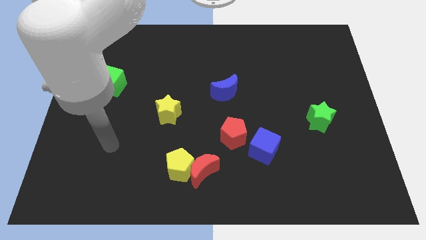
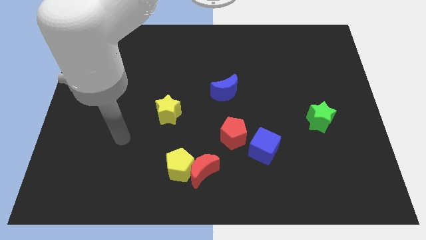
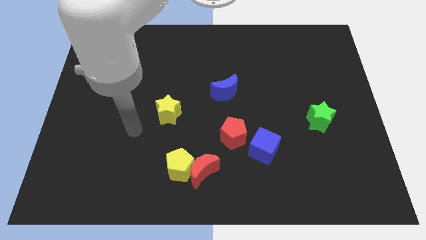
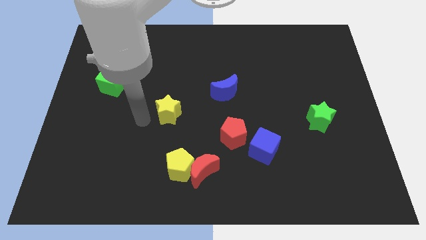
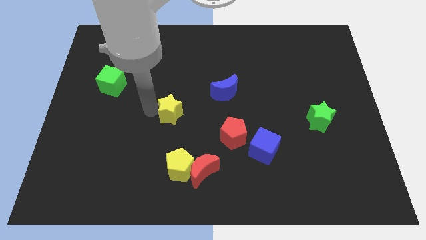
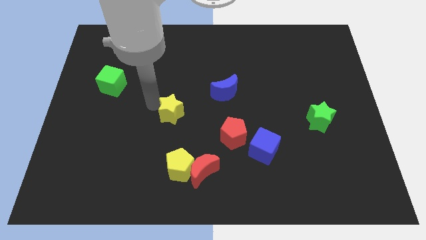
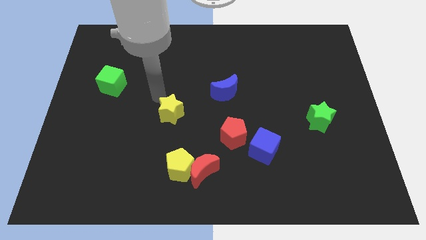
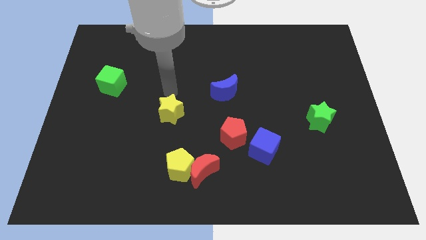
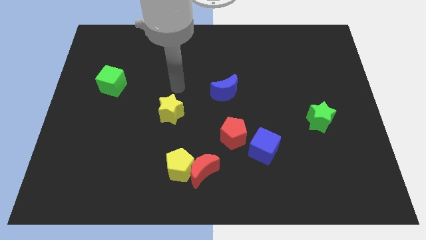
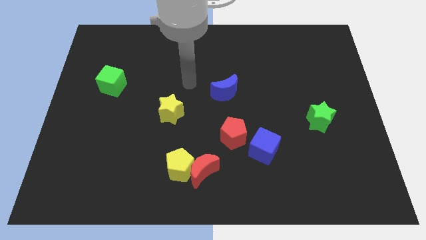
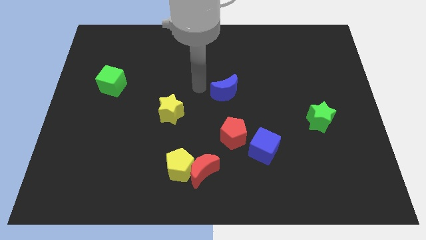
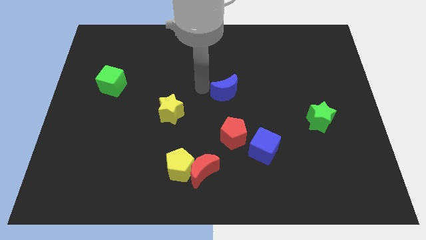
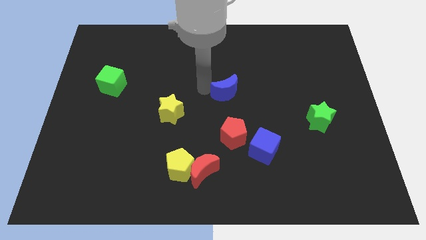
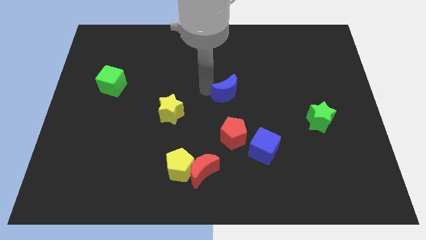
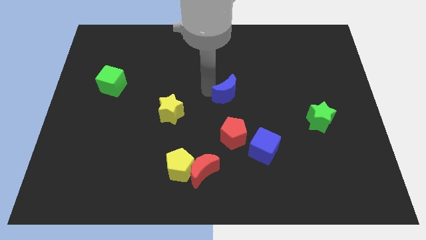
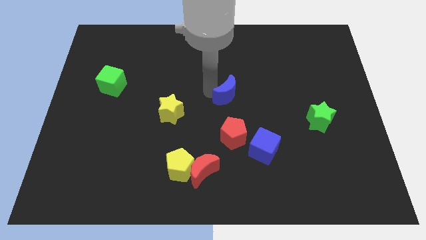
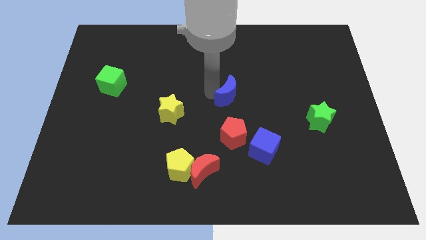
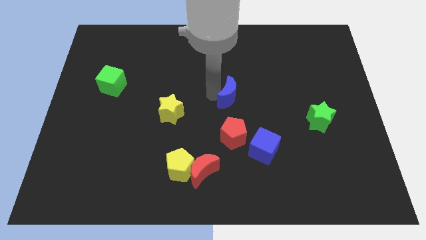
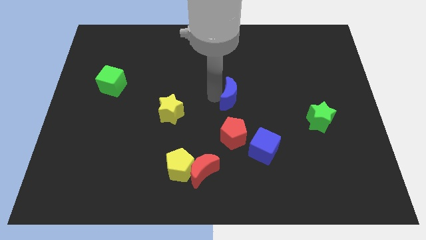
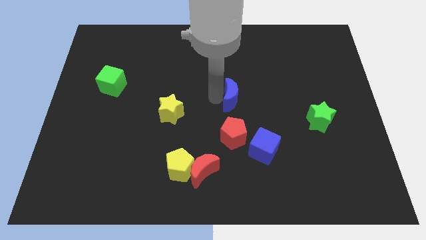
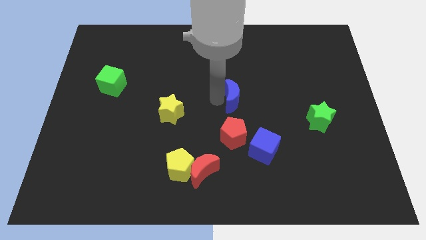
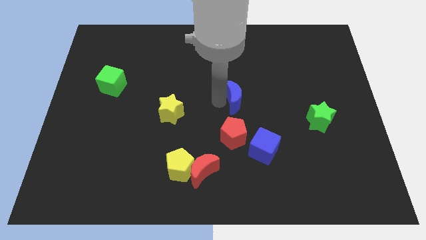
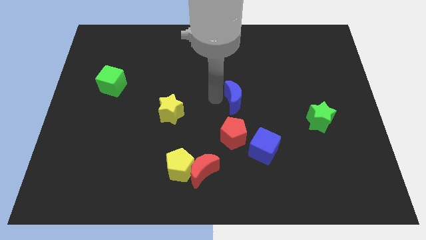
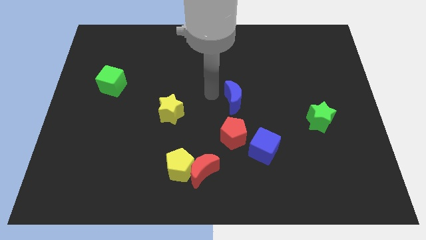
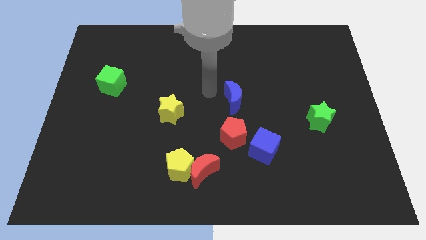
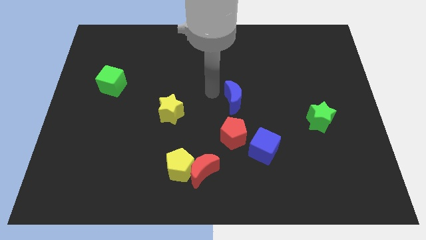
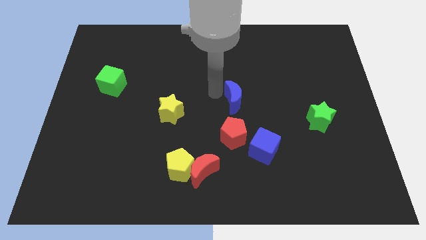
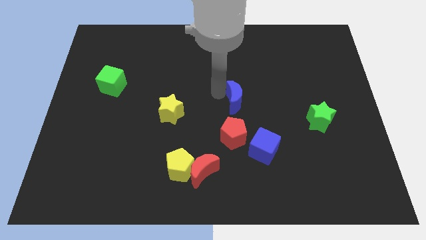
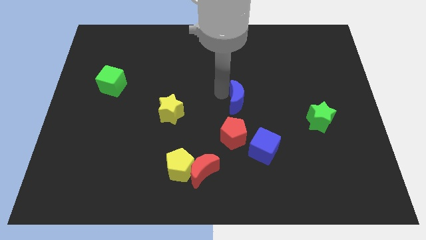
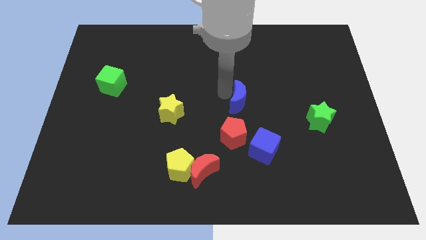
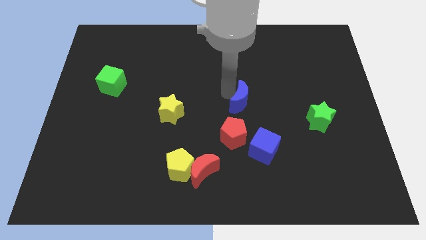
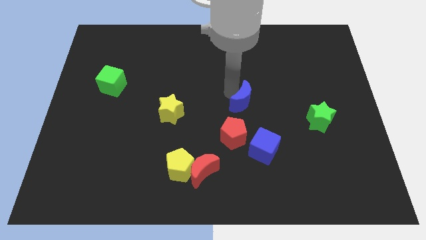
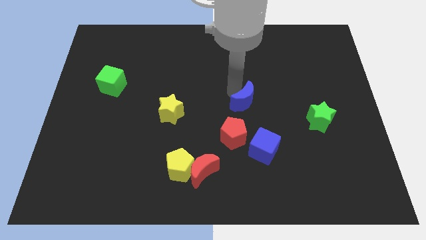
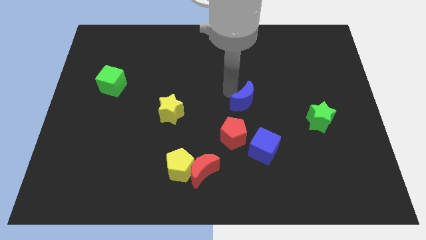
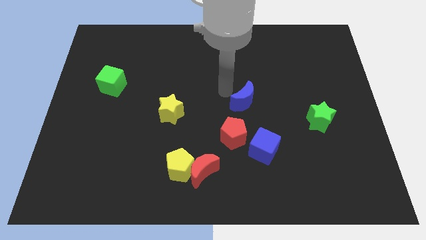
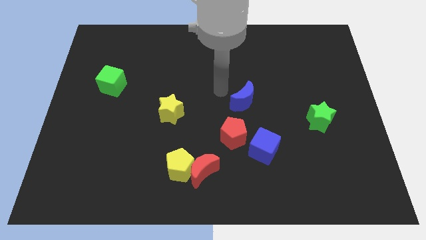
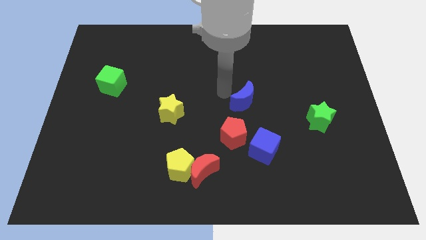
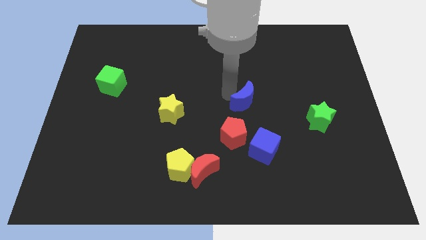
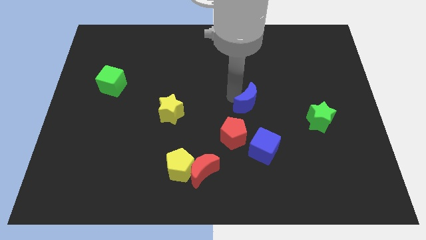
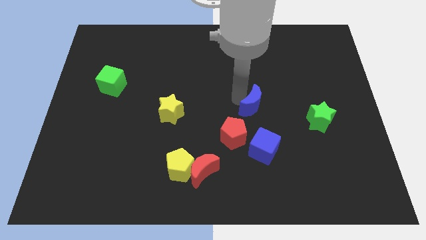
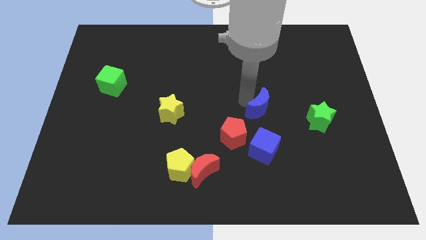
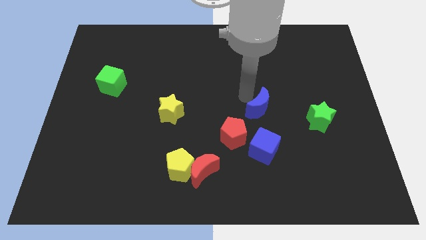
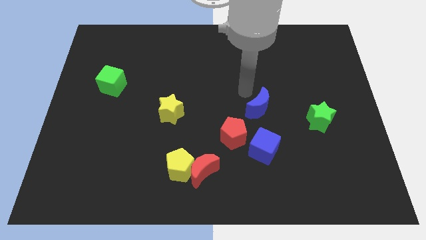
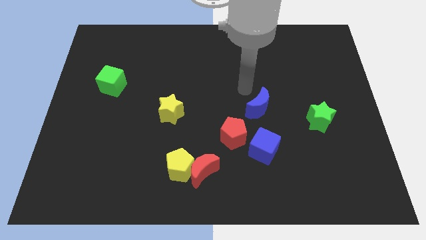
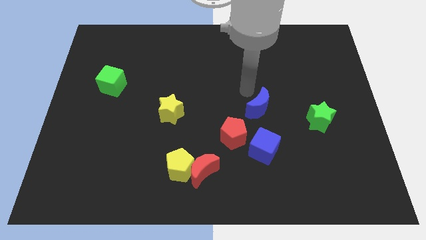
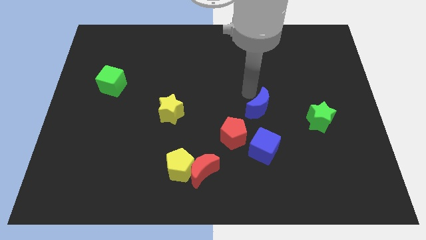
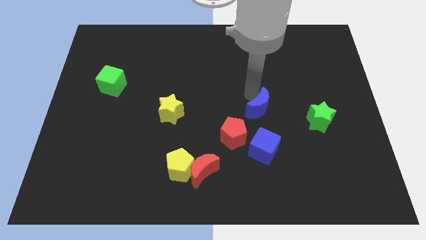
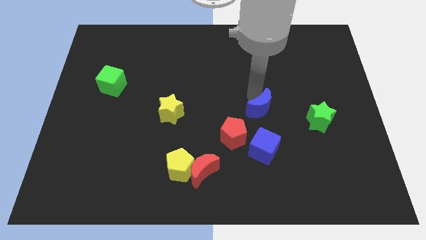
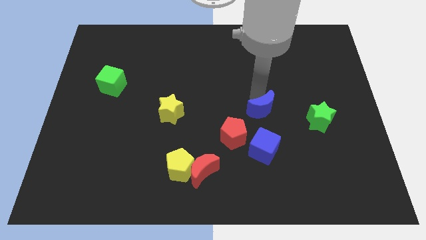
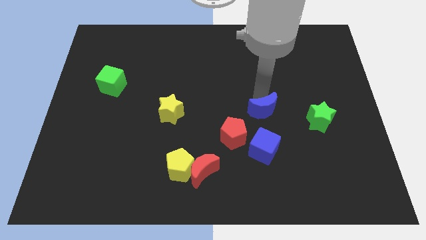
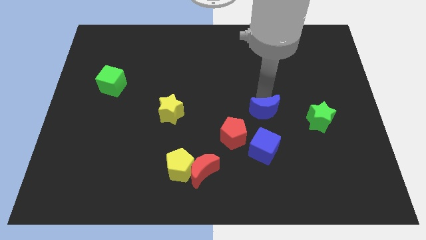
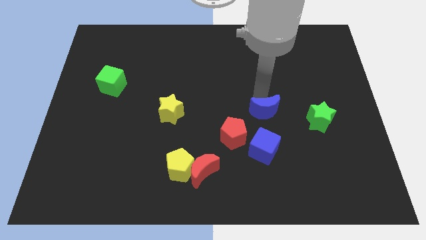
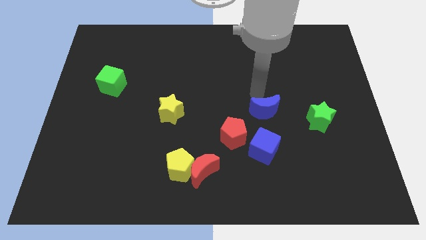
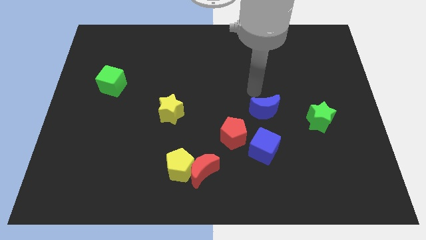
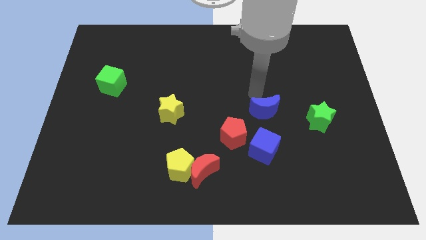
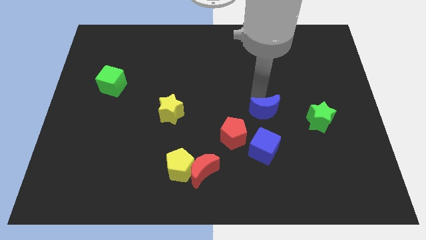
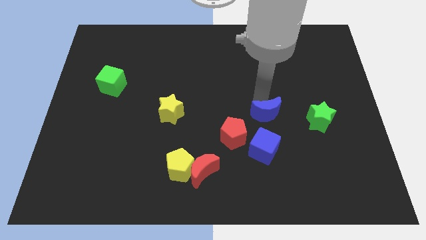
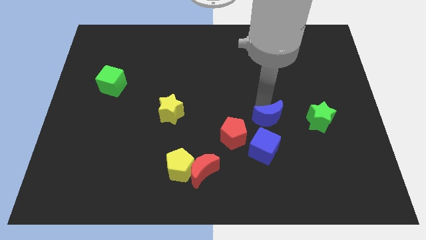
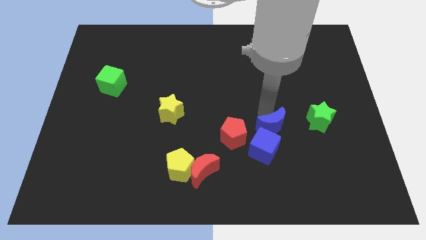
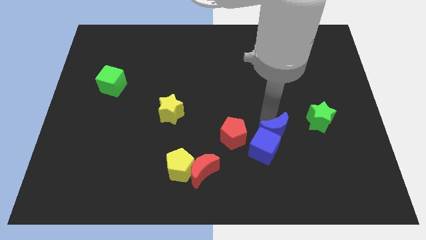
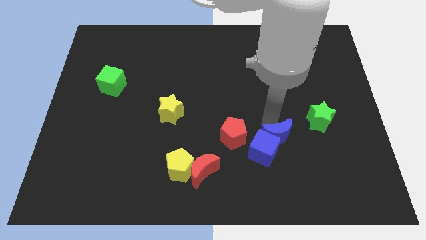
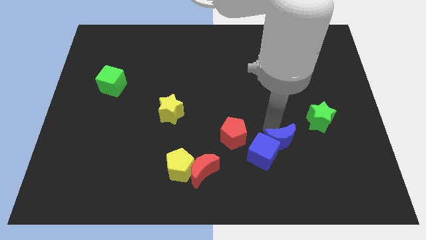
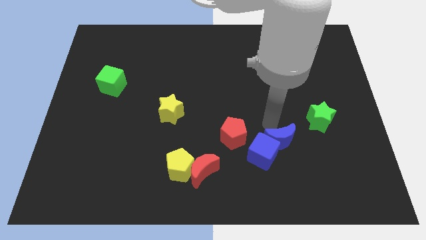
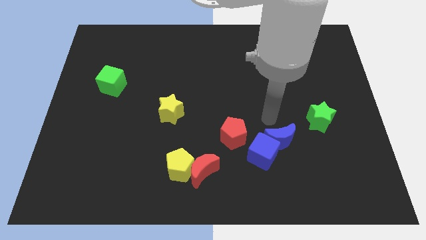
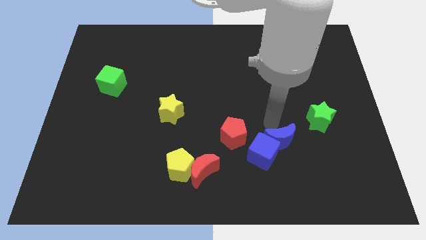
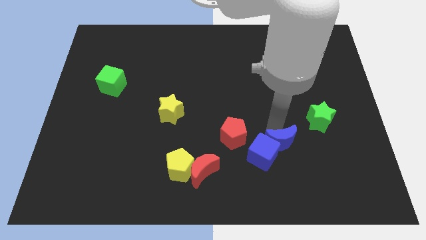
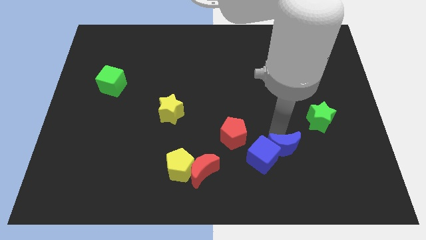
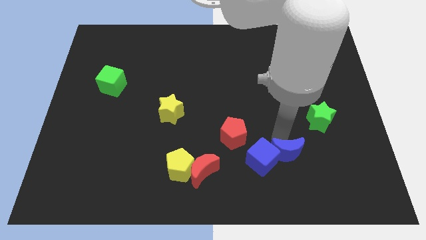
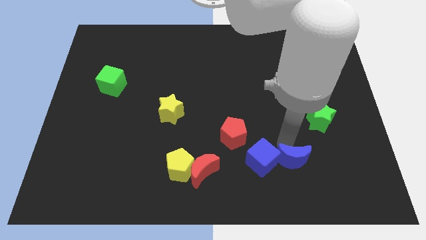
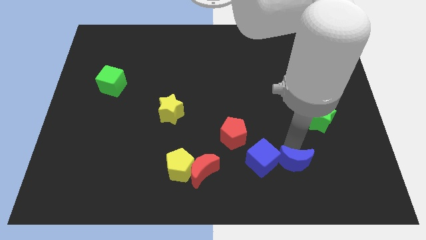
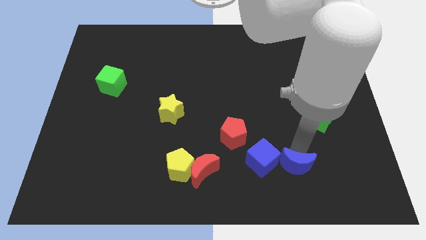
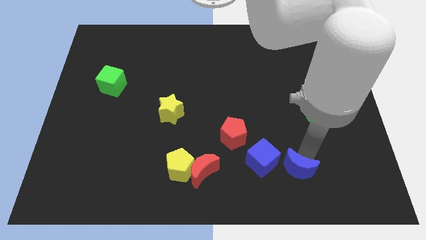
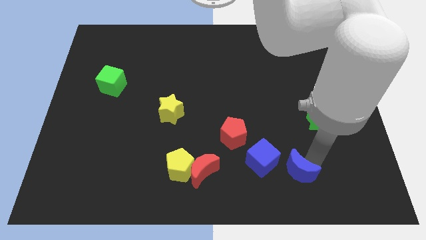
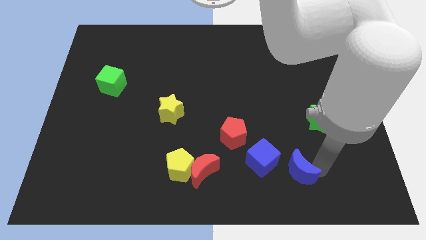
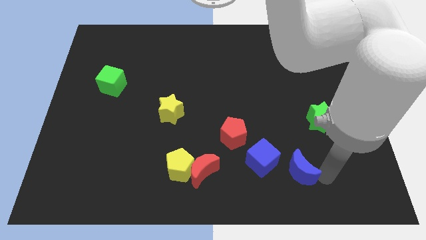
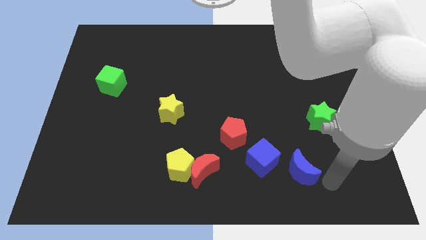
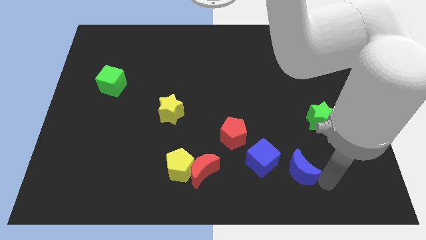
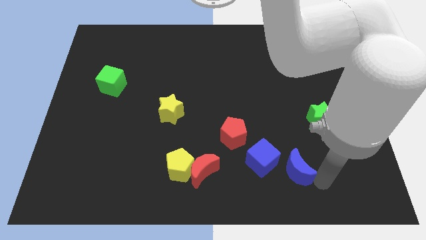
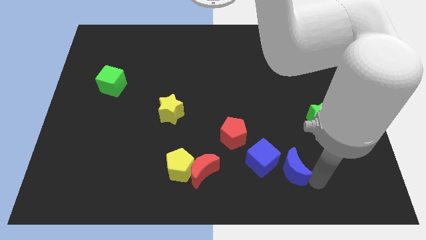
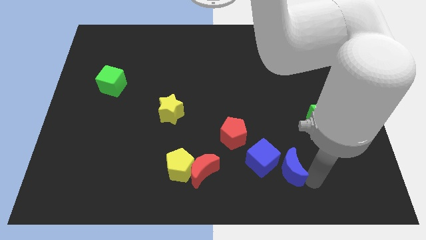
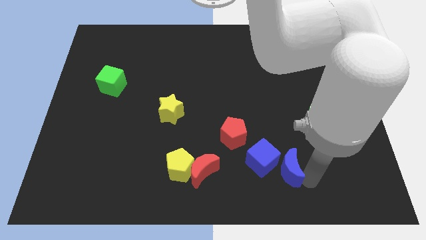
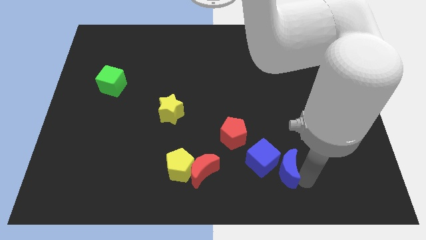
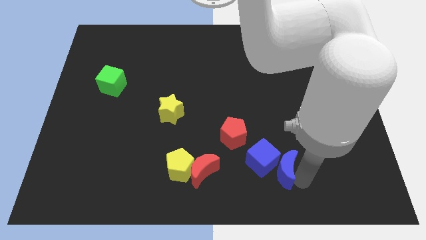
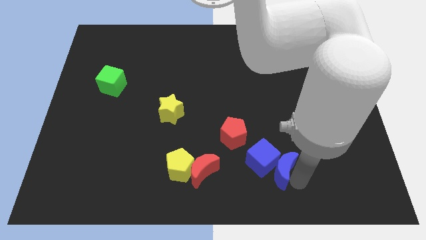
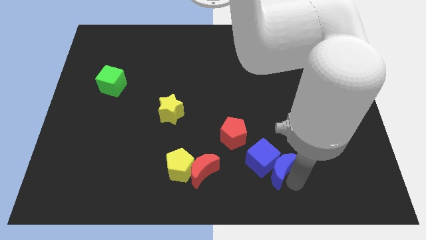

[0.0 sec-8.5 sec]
push the blue moon to the bottom right side of the red pentagon
